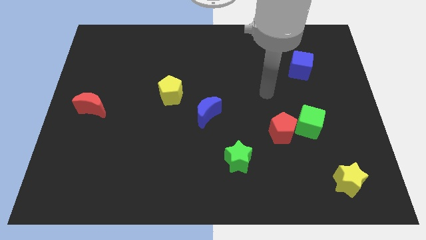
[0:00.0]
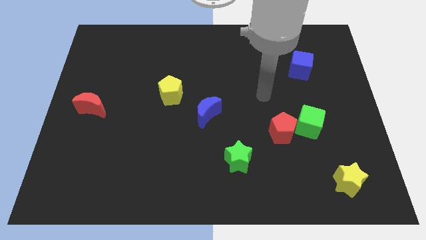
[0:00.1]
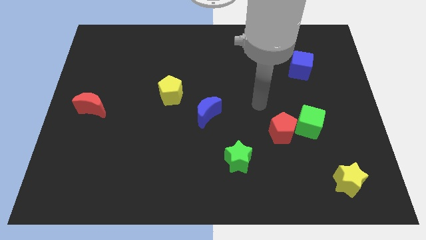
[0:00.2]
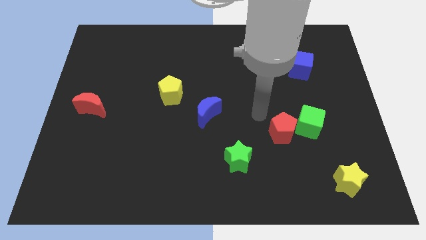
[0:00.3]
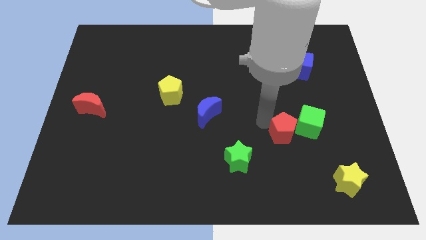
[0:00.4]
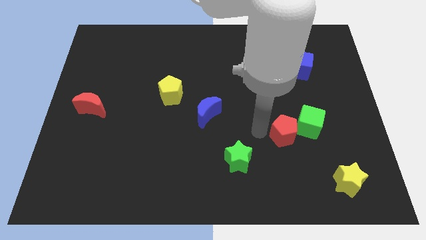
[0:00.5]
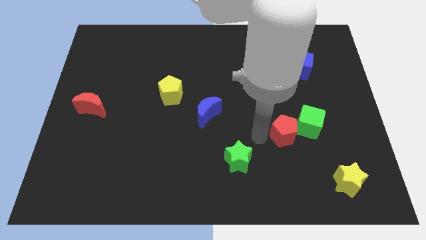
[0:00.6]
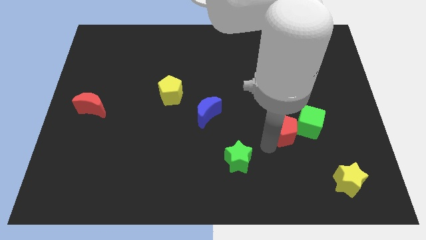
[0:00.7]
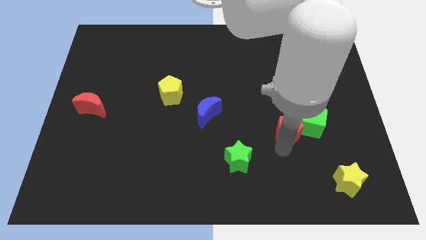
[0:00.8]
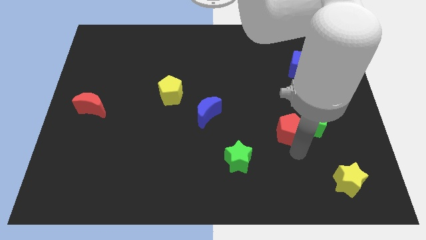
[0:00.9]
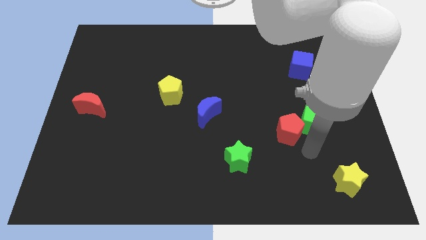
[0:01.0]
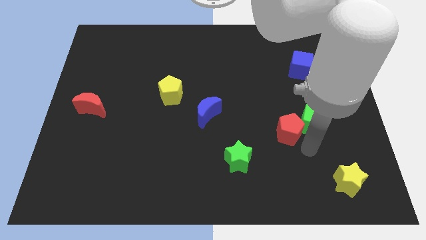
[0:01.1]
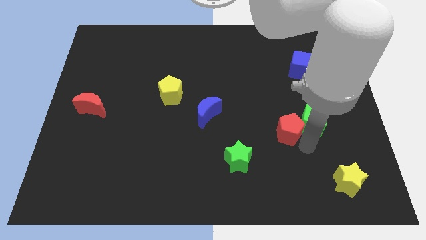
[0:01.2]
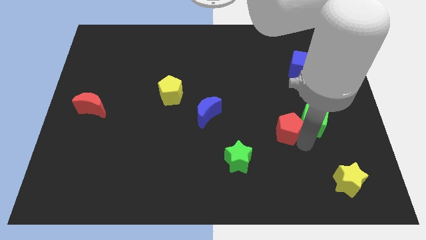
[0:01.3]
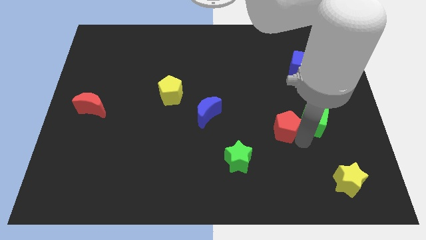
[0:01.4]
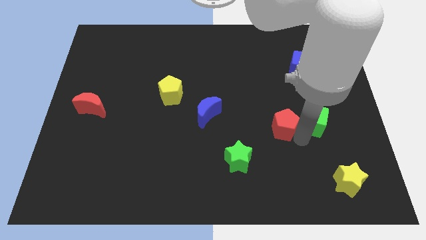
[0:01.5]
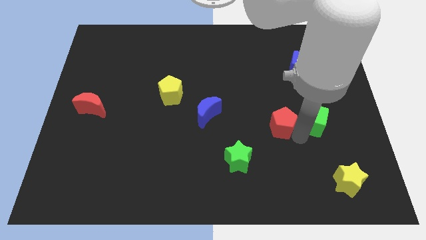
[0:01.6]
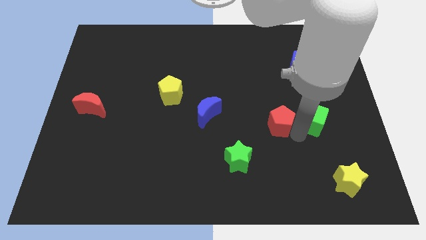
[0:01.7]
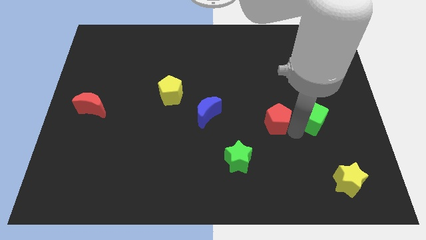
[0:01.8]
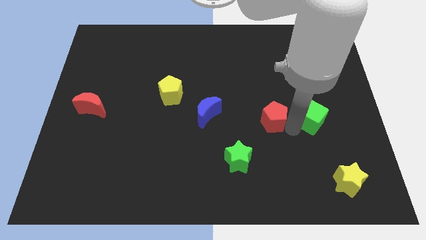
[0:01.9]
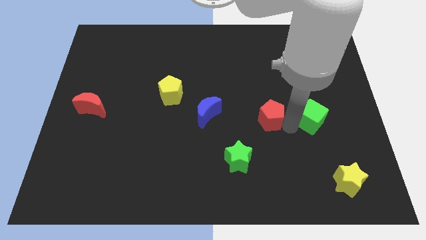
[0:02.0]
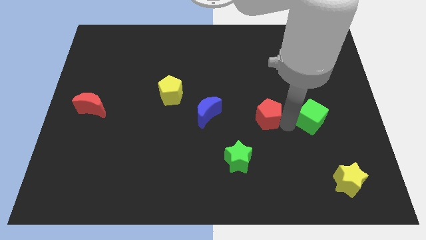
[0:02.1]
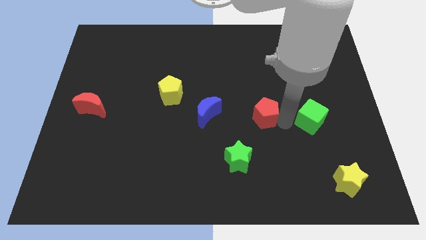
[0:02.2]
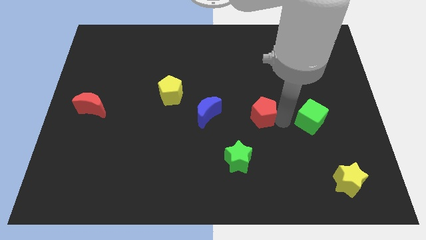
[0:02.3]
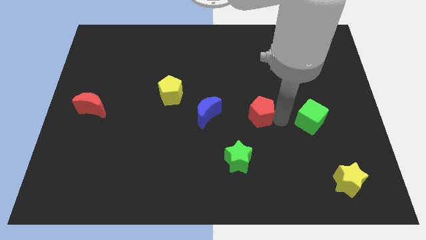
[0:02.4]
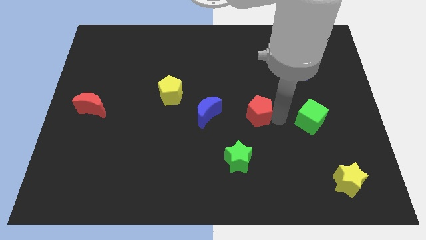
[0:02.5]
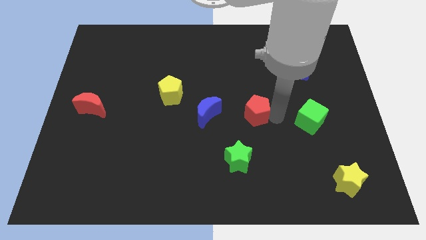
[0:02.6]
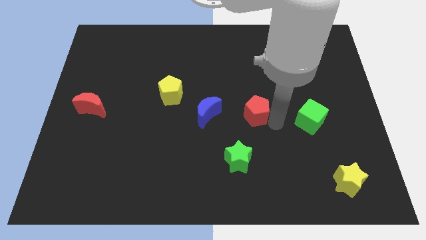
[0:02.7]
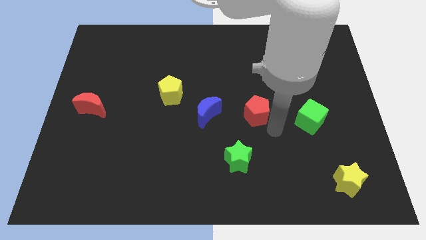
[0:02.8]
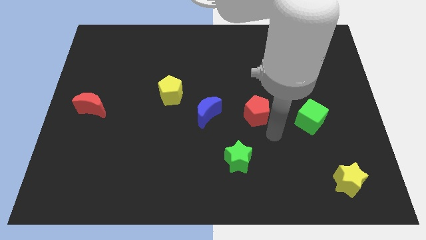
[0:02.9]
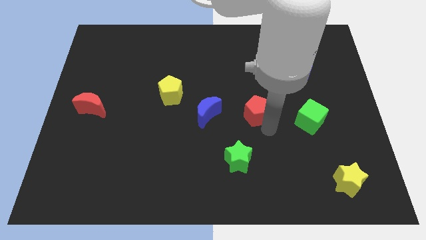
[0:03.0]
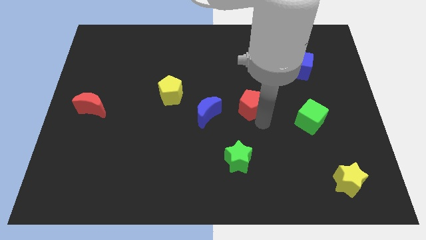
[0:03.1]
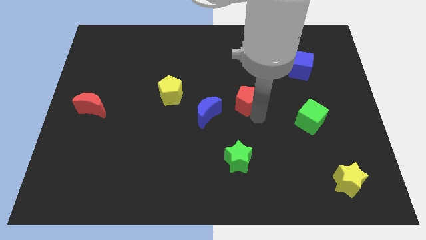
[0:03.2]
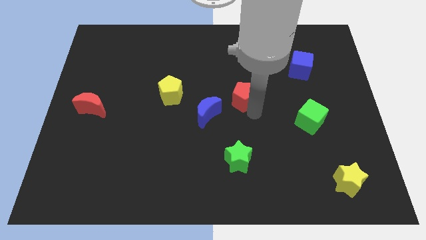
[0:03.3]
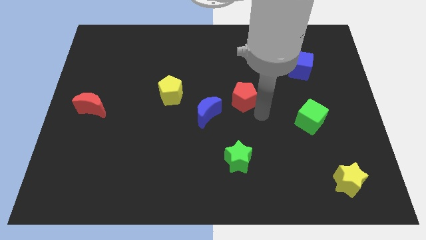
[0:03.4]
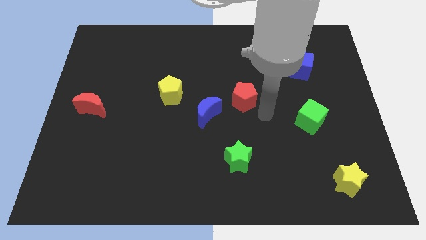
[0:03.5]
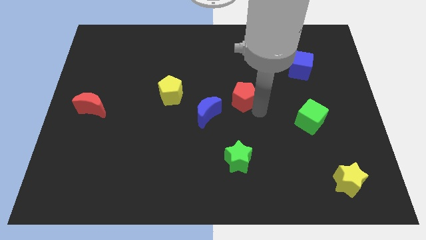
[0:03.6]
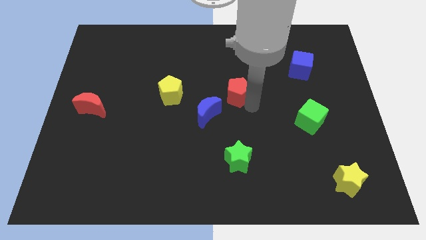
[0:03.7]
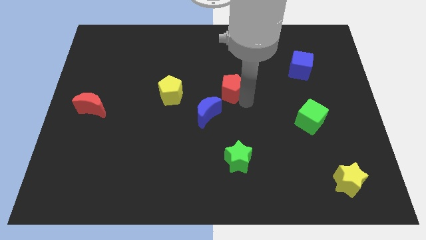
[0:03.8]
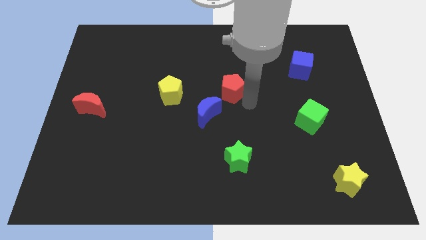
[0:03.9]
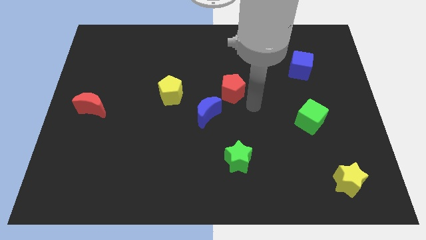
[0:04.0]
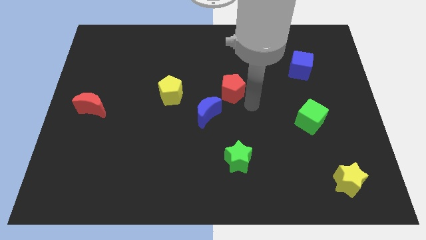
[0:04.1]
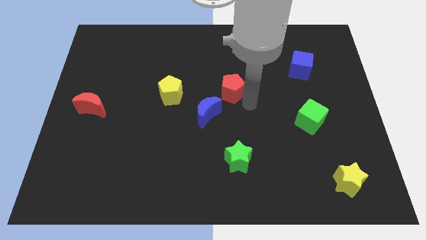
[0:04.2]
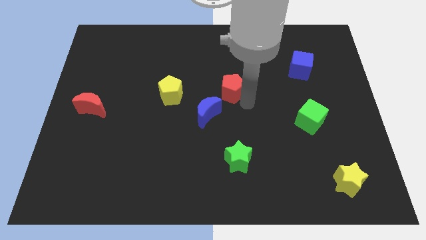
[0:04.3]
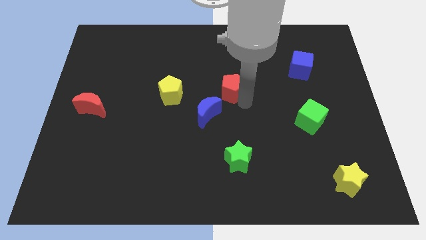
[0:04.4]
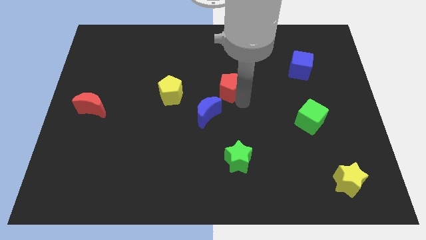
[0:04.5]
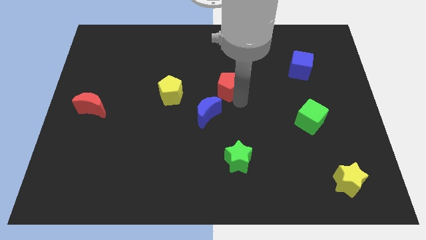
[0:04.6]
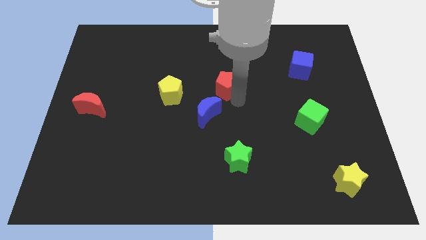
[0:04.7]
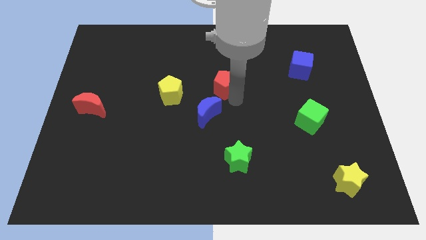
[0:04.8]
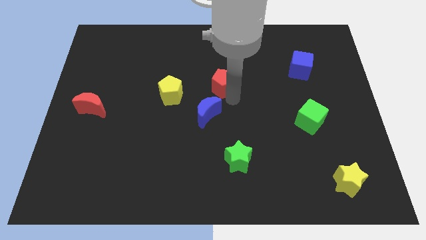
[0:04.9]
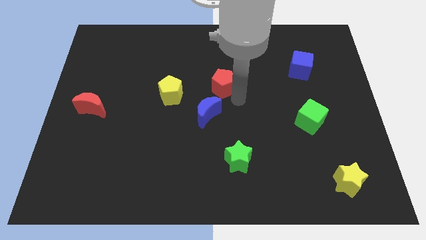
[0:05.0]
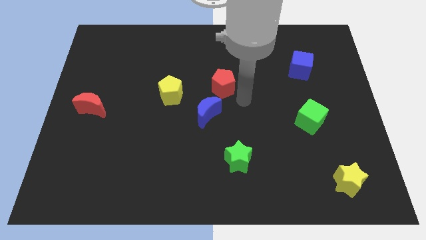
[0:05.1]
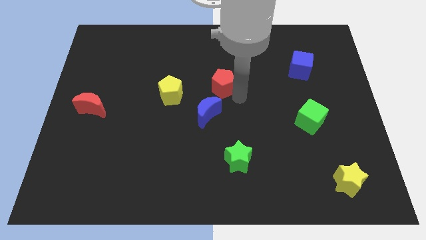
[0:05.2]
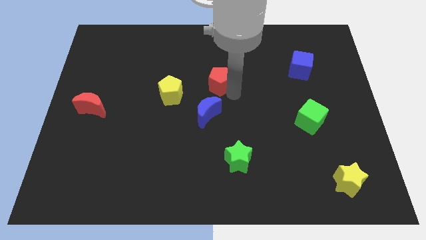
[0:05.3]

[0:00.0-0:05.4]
push the red pentagon up and left diagonally

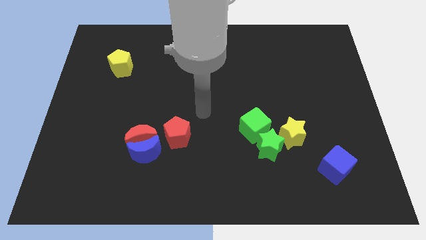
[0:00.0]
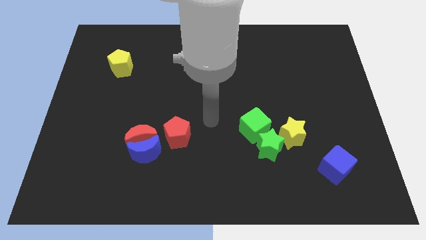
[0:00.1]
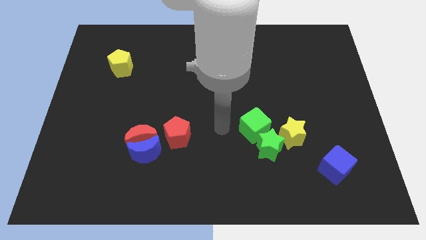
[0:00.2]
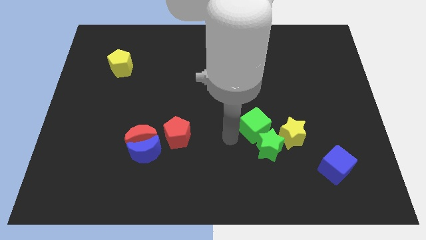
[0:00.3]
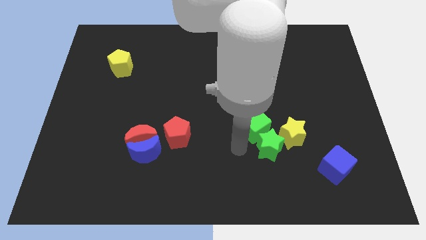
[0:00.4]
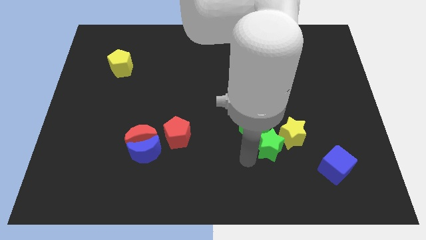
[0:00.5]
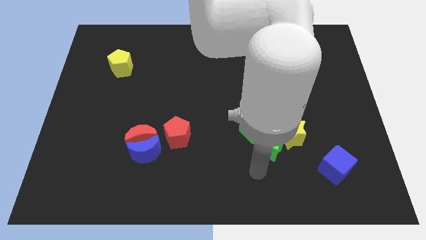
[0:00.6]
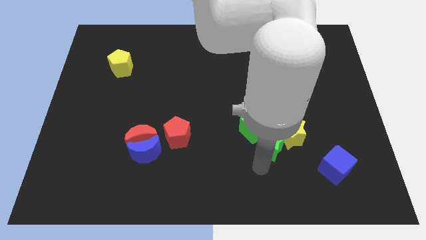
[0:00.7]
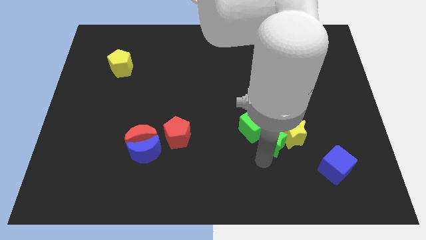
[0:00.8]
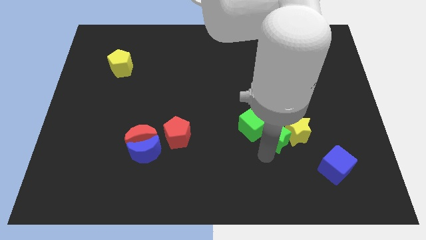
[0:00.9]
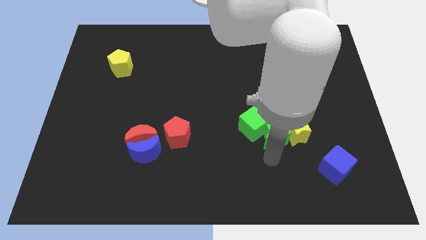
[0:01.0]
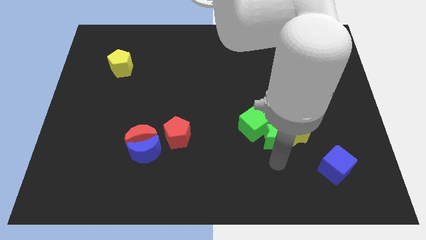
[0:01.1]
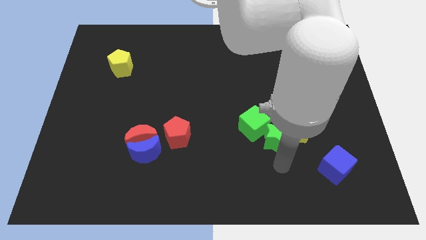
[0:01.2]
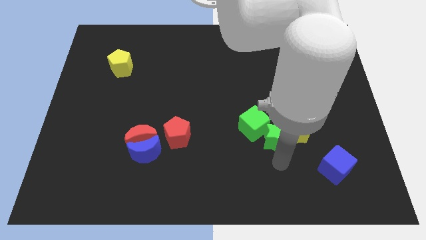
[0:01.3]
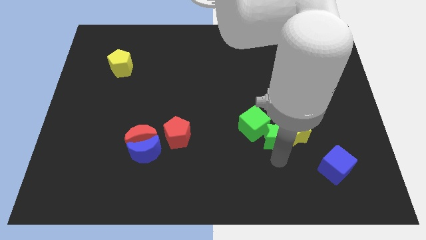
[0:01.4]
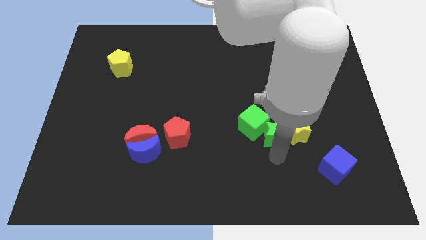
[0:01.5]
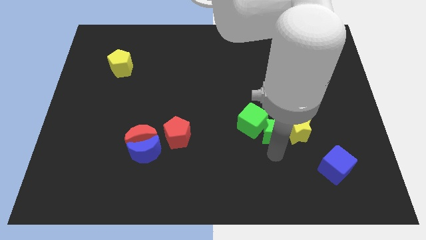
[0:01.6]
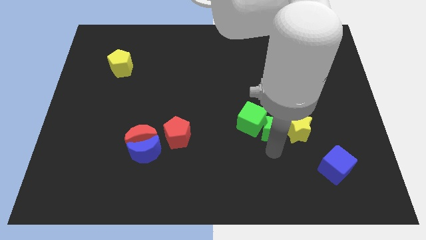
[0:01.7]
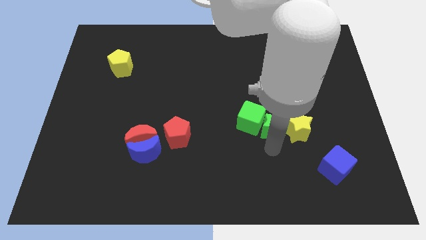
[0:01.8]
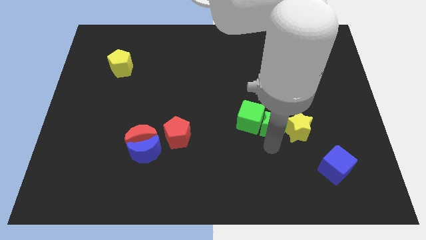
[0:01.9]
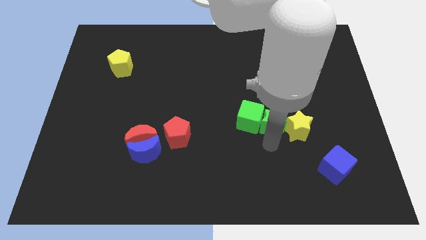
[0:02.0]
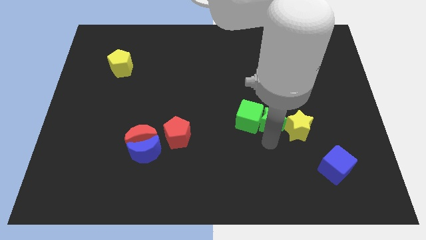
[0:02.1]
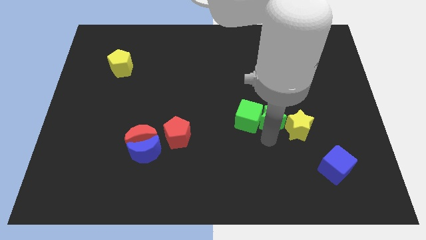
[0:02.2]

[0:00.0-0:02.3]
push the green star a little bit up

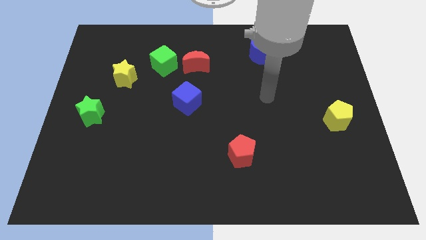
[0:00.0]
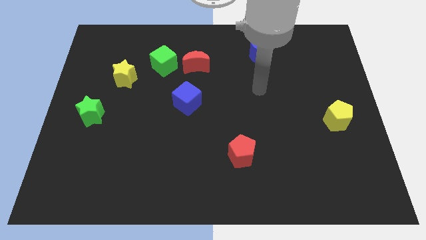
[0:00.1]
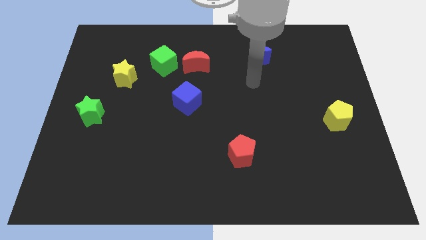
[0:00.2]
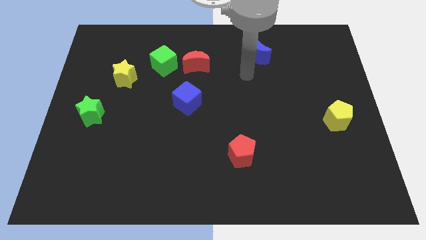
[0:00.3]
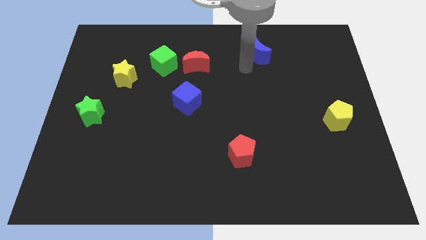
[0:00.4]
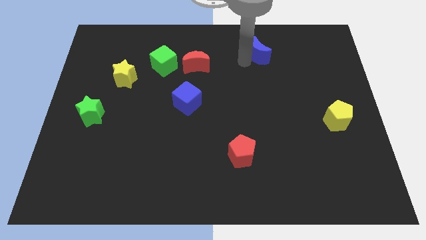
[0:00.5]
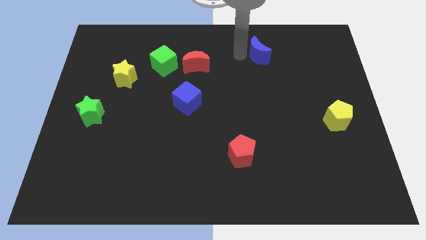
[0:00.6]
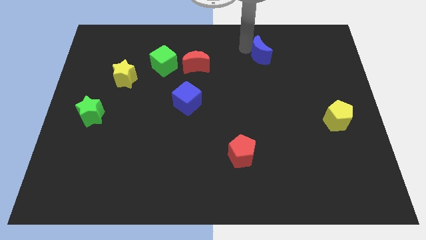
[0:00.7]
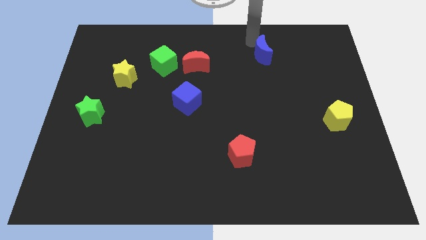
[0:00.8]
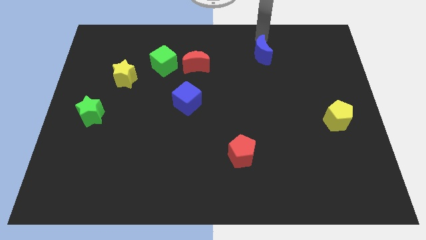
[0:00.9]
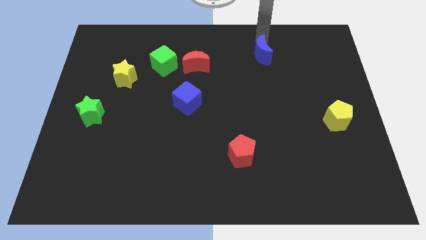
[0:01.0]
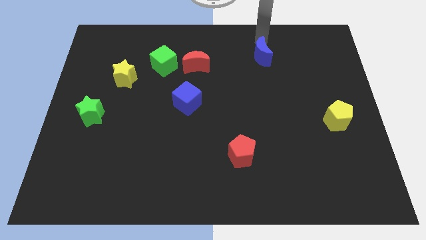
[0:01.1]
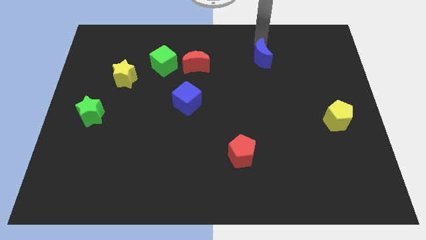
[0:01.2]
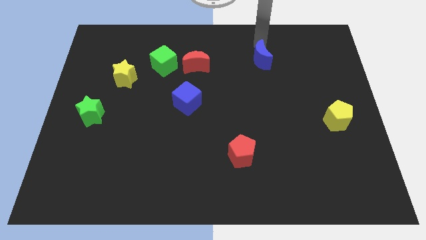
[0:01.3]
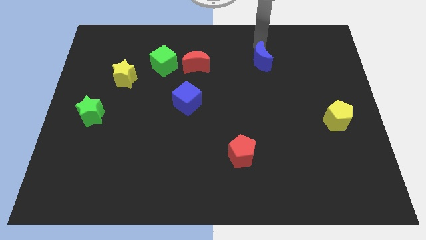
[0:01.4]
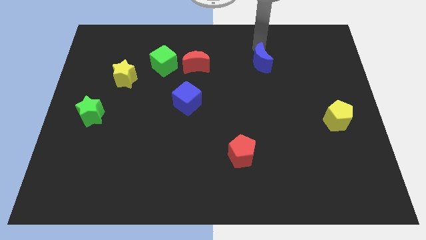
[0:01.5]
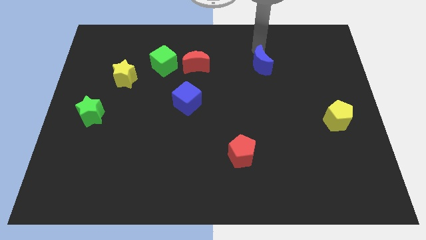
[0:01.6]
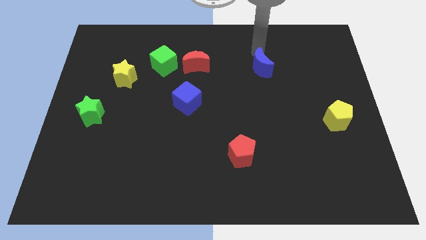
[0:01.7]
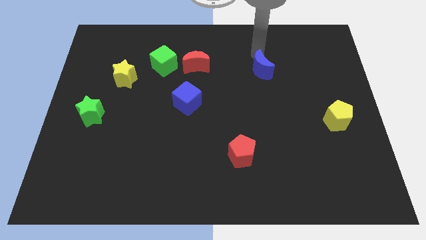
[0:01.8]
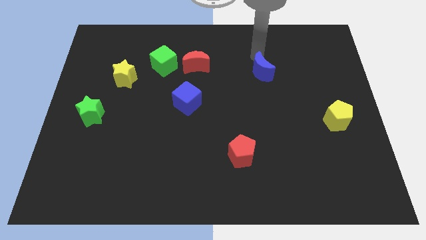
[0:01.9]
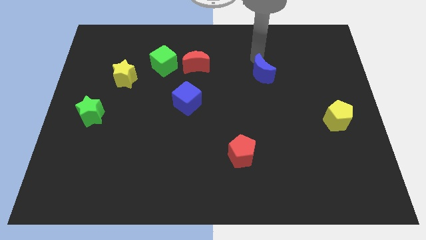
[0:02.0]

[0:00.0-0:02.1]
slightly move the blue moon down
